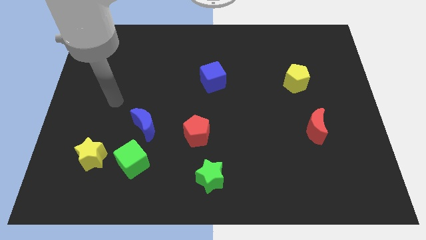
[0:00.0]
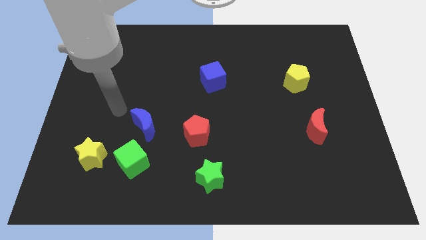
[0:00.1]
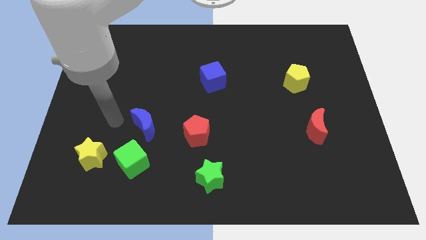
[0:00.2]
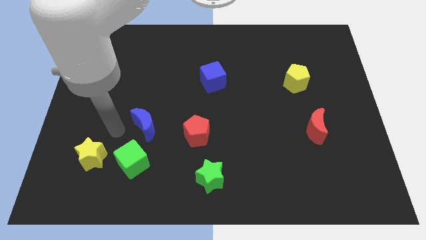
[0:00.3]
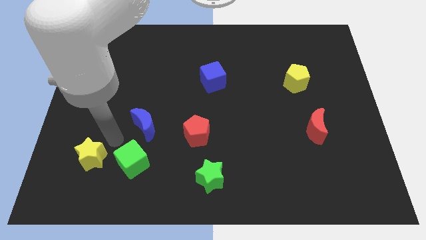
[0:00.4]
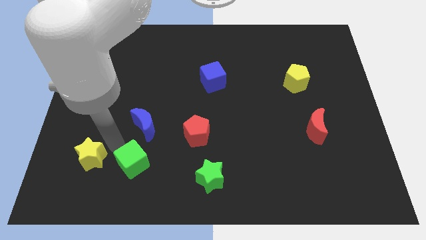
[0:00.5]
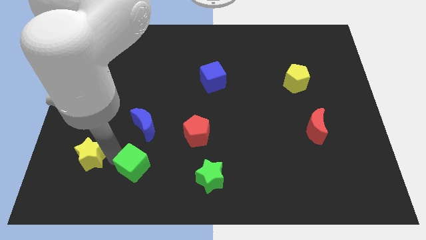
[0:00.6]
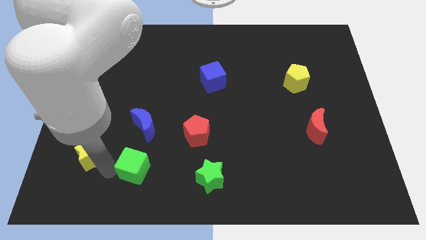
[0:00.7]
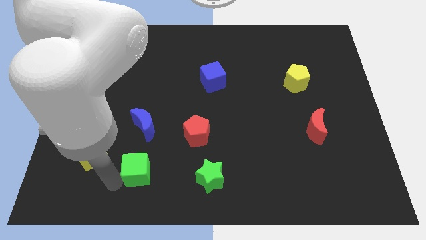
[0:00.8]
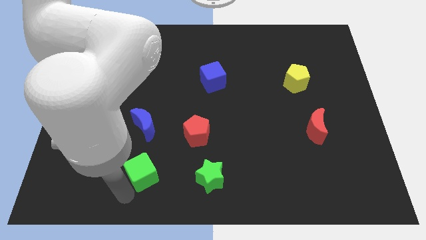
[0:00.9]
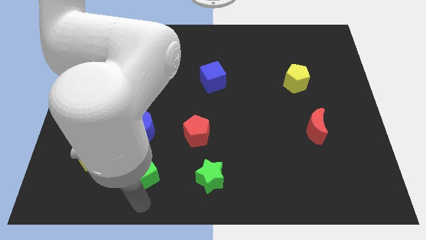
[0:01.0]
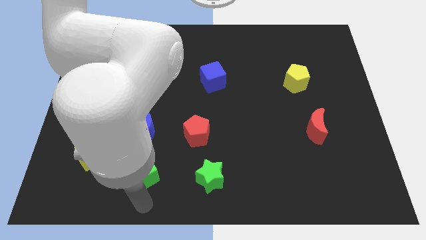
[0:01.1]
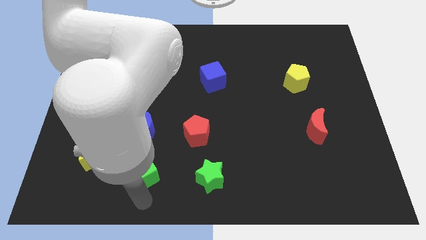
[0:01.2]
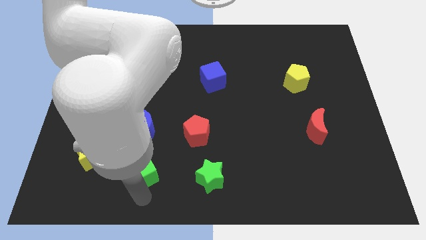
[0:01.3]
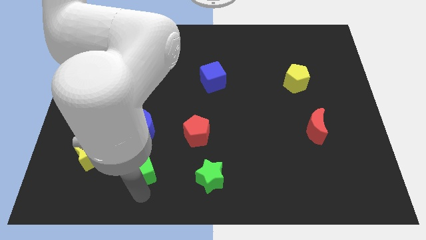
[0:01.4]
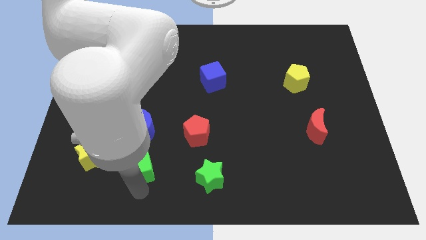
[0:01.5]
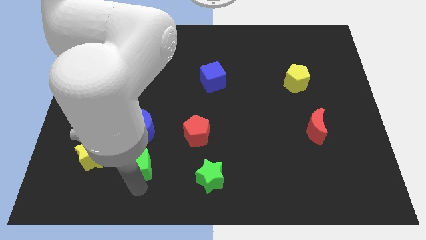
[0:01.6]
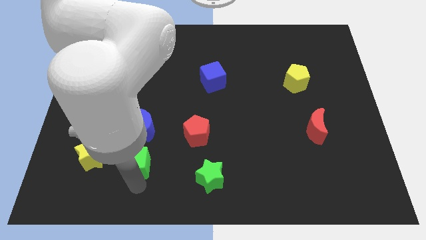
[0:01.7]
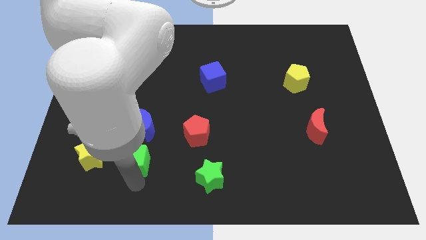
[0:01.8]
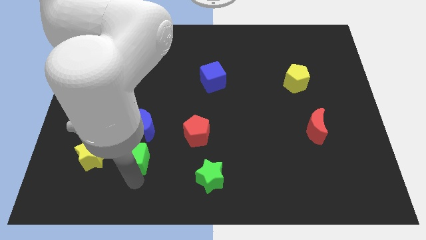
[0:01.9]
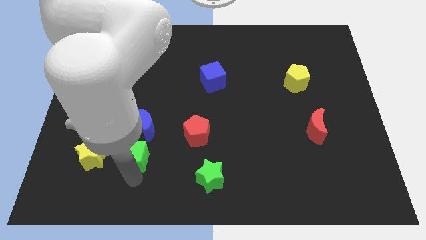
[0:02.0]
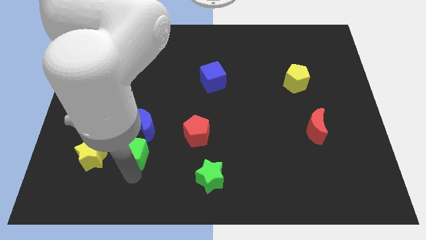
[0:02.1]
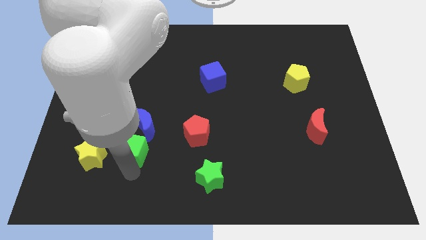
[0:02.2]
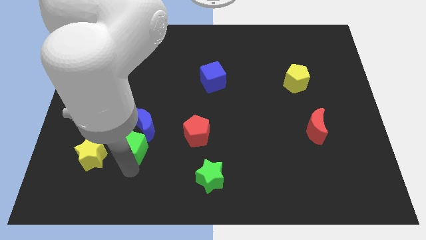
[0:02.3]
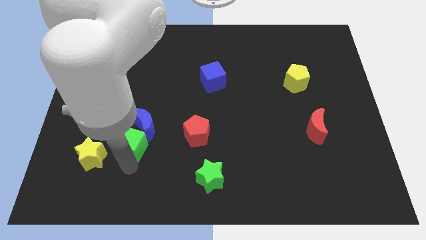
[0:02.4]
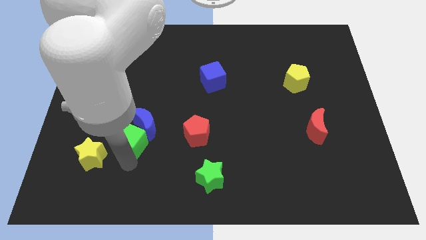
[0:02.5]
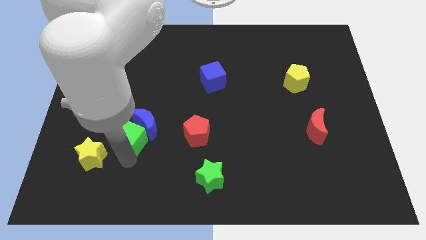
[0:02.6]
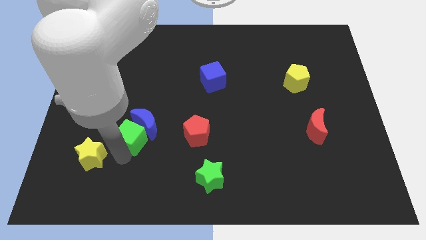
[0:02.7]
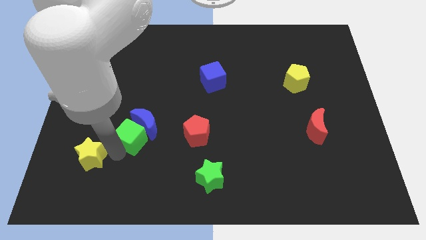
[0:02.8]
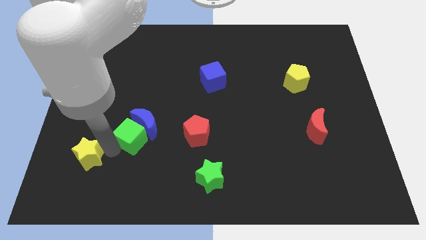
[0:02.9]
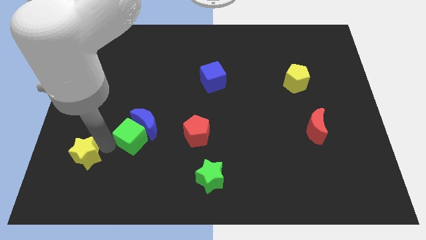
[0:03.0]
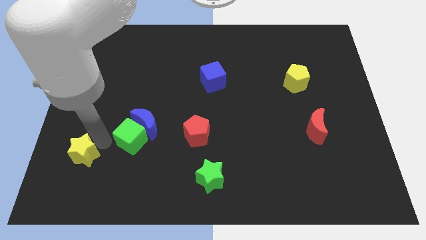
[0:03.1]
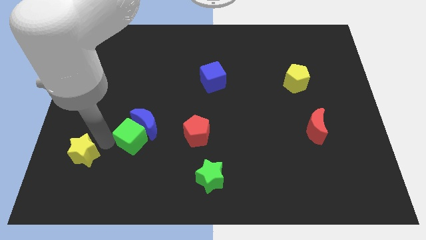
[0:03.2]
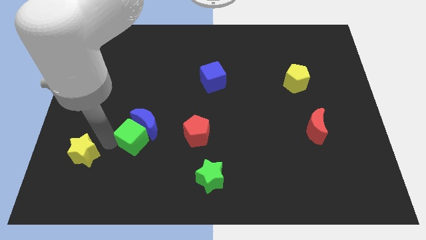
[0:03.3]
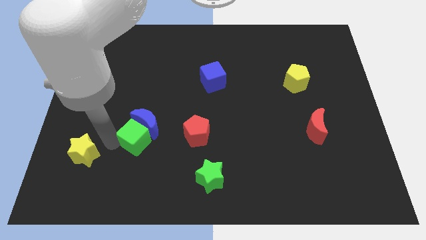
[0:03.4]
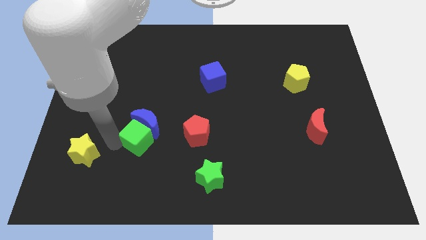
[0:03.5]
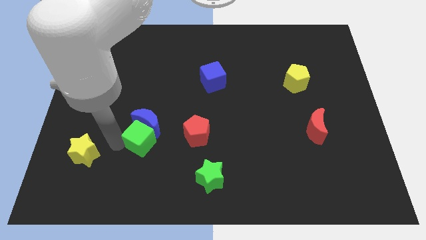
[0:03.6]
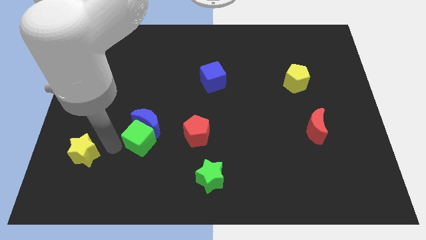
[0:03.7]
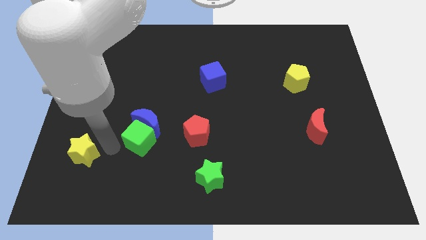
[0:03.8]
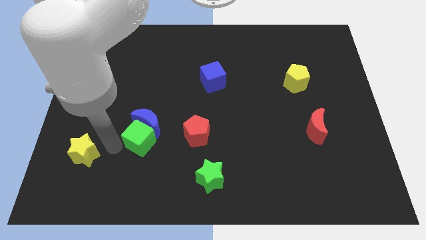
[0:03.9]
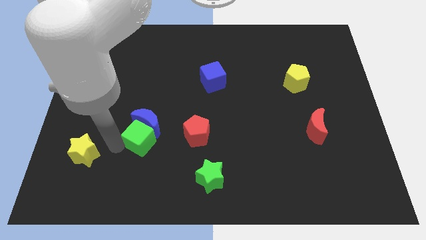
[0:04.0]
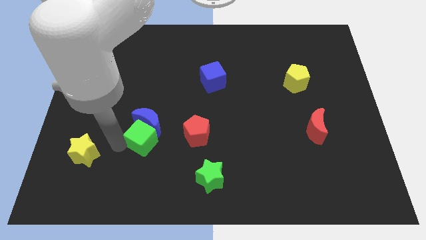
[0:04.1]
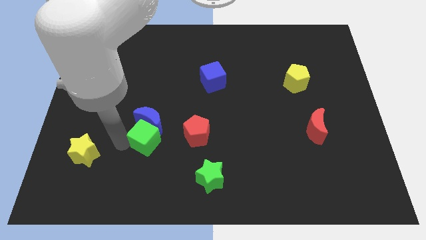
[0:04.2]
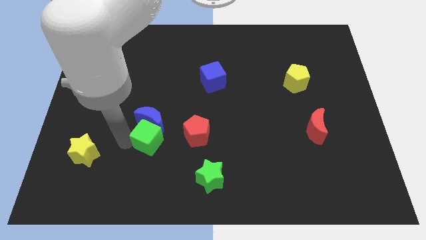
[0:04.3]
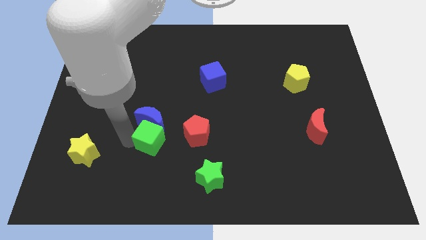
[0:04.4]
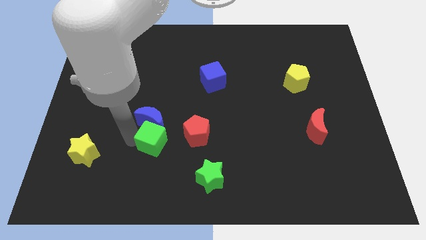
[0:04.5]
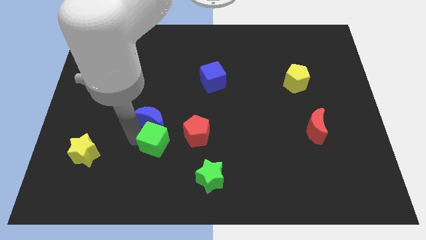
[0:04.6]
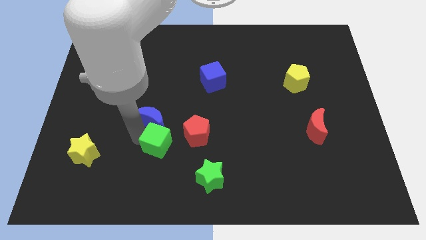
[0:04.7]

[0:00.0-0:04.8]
push the green cube a bit upwards and right diagonally

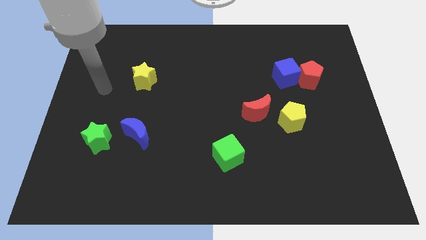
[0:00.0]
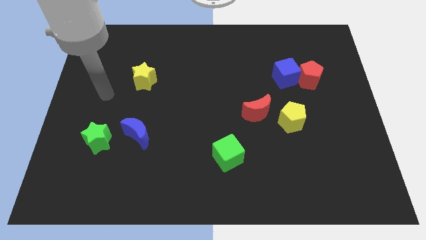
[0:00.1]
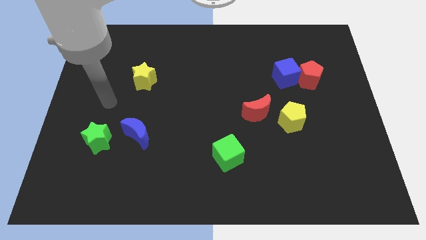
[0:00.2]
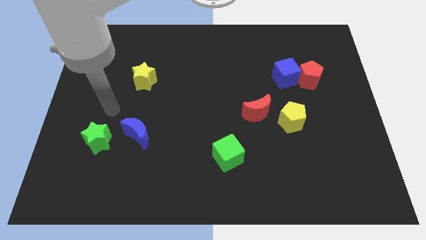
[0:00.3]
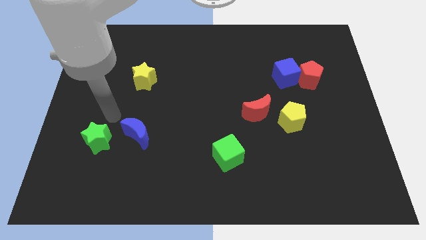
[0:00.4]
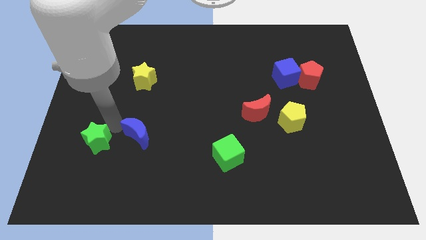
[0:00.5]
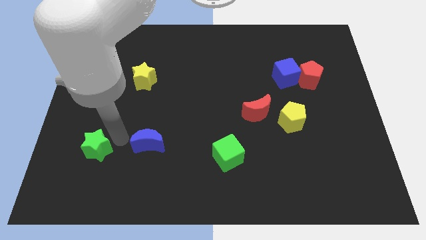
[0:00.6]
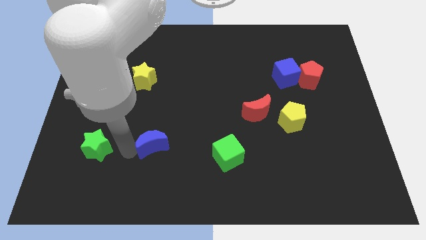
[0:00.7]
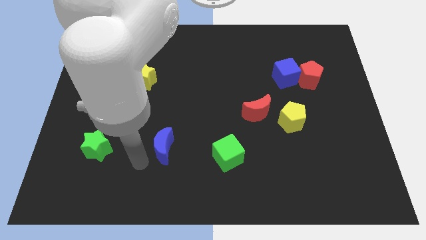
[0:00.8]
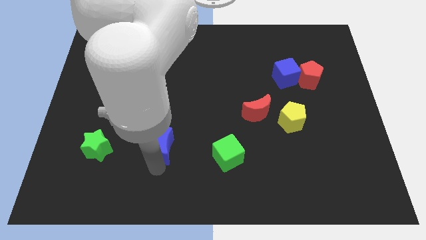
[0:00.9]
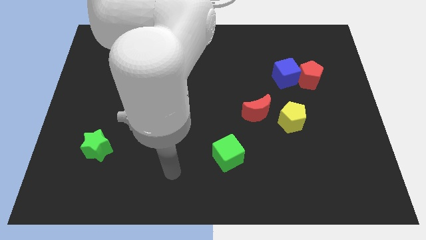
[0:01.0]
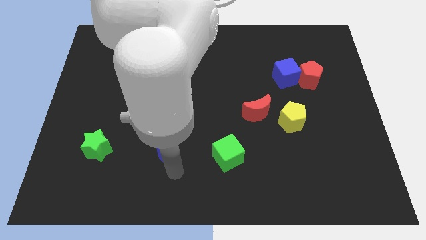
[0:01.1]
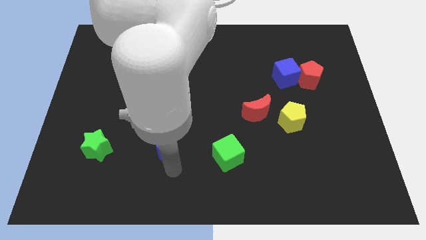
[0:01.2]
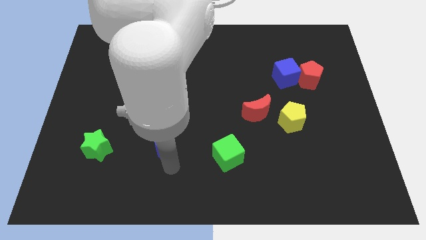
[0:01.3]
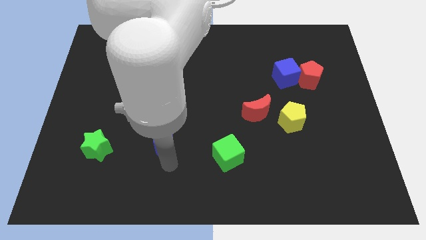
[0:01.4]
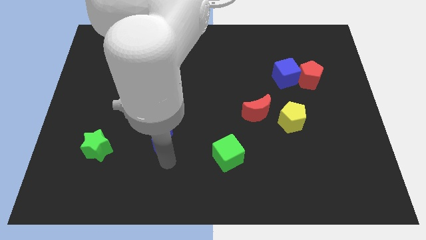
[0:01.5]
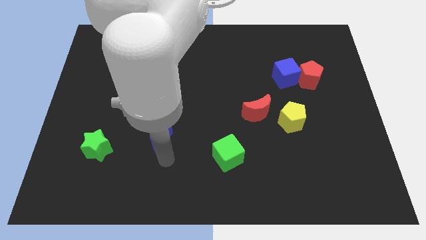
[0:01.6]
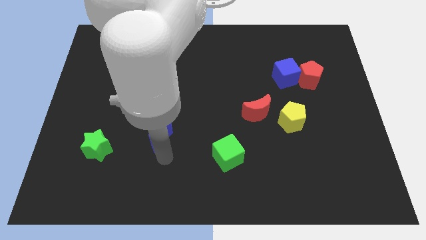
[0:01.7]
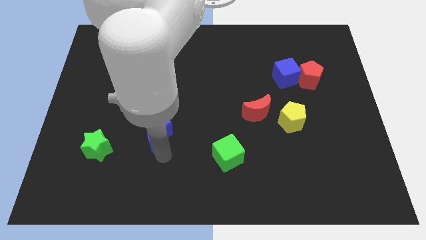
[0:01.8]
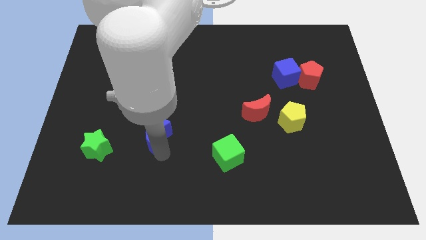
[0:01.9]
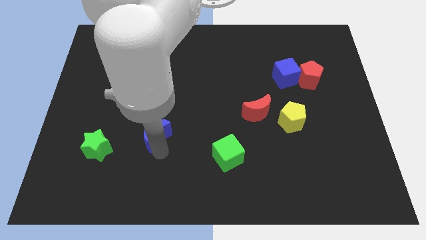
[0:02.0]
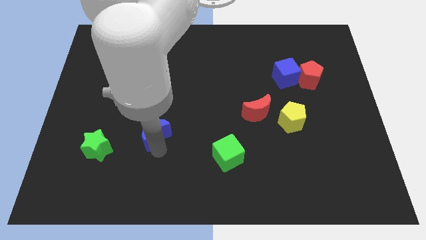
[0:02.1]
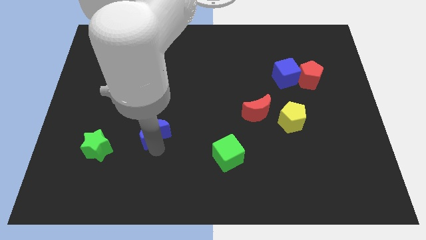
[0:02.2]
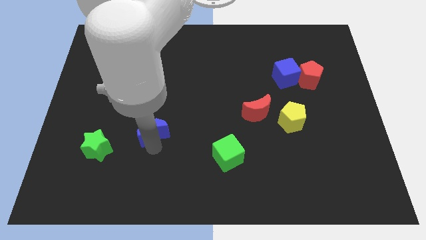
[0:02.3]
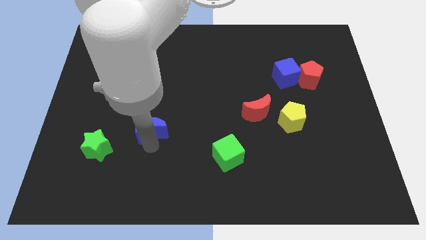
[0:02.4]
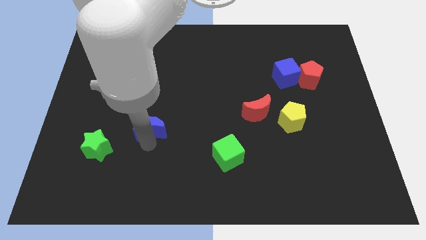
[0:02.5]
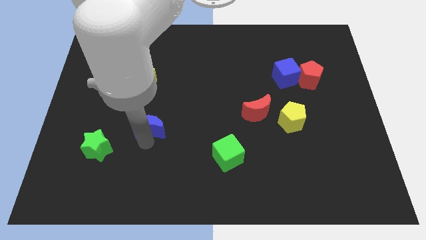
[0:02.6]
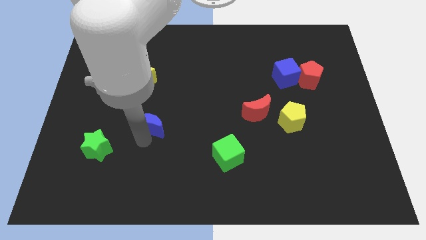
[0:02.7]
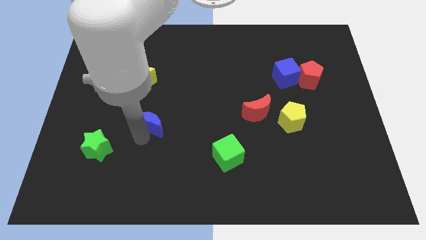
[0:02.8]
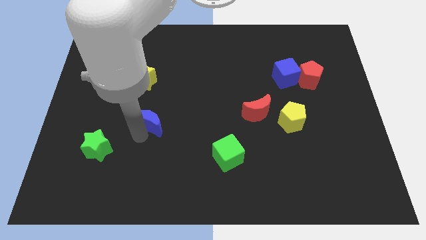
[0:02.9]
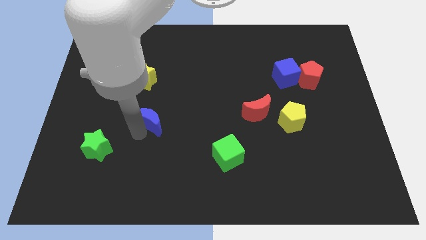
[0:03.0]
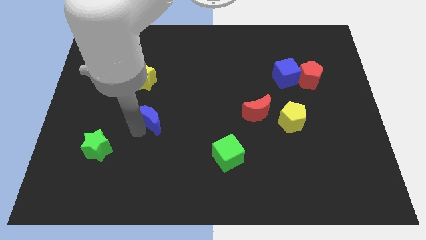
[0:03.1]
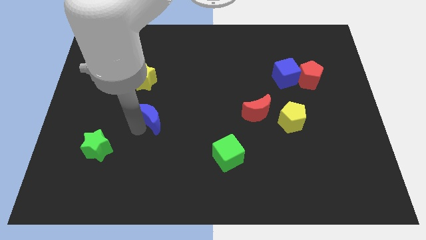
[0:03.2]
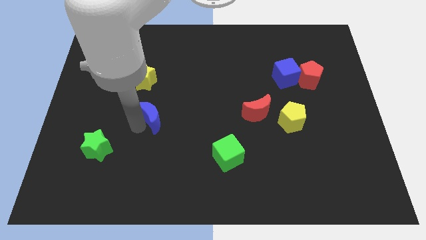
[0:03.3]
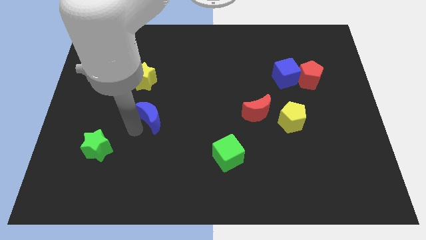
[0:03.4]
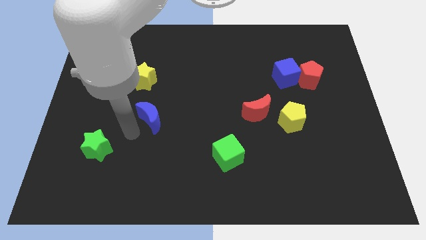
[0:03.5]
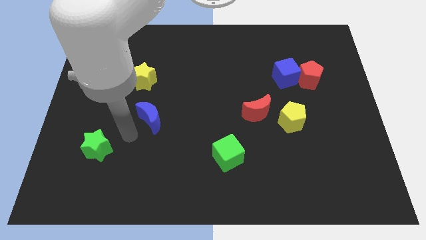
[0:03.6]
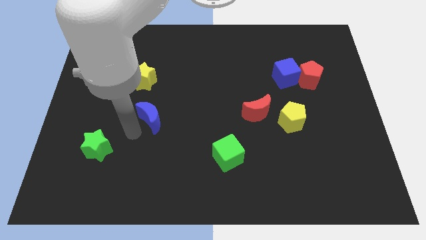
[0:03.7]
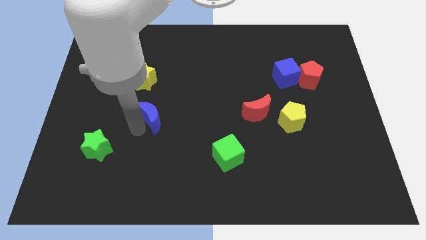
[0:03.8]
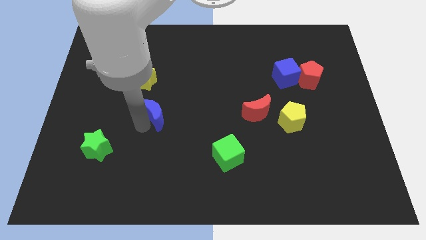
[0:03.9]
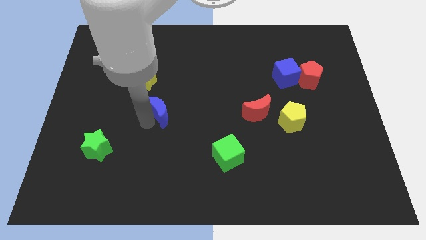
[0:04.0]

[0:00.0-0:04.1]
move the blue moon upwards and then to the right slightly
